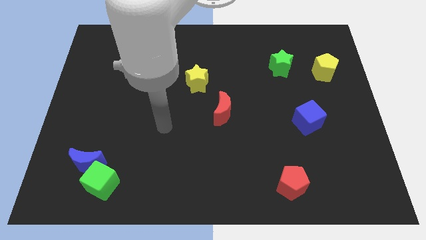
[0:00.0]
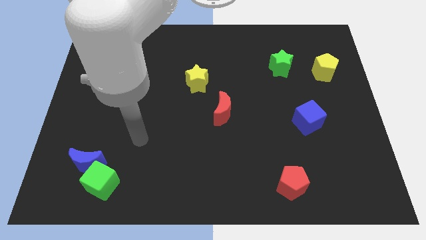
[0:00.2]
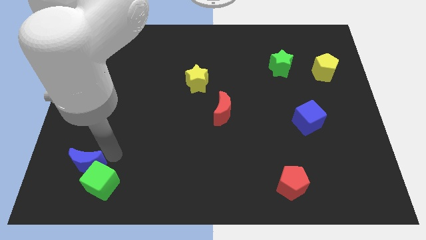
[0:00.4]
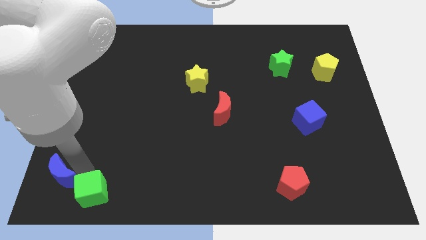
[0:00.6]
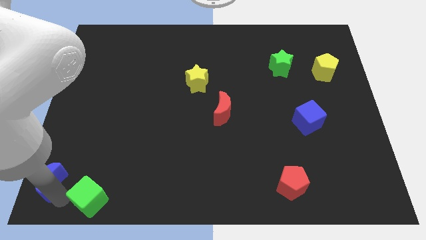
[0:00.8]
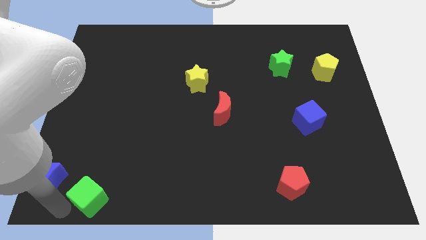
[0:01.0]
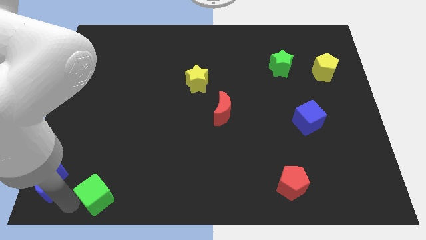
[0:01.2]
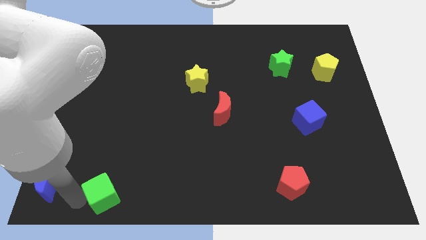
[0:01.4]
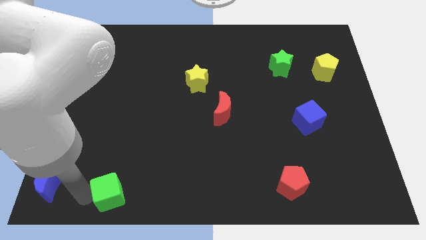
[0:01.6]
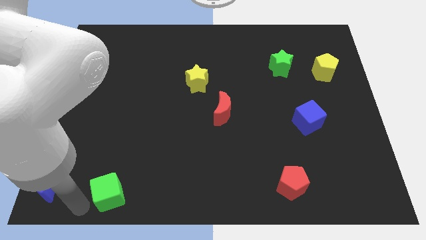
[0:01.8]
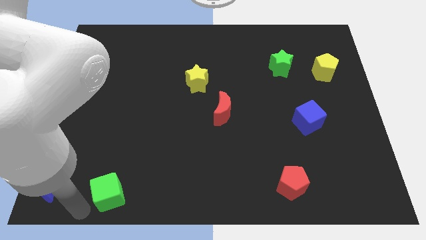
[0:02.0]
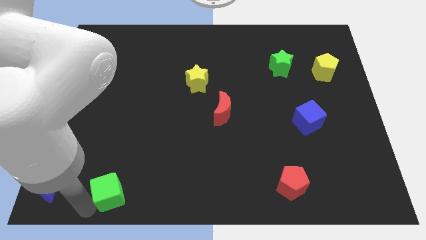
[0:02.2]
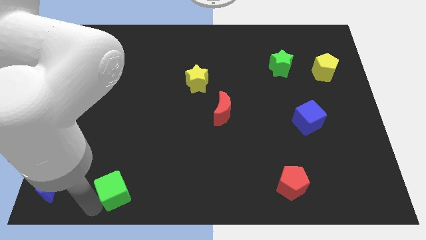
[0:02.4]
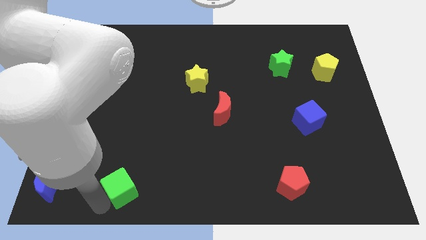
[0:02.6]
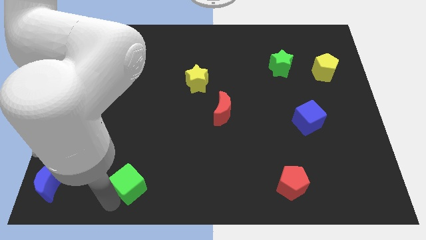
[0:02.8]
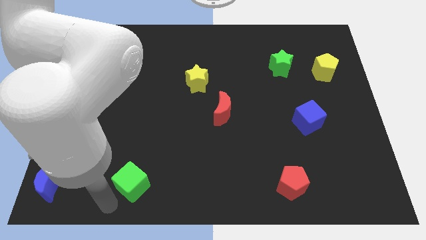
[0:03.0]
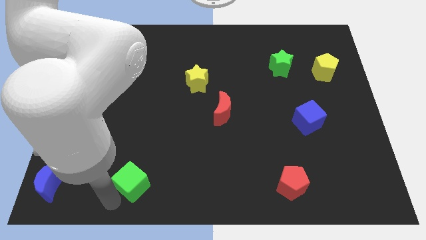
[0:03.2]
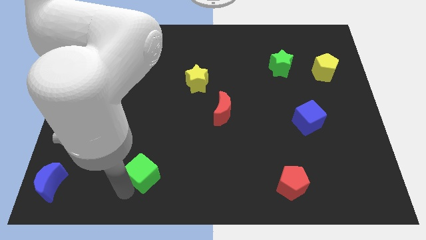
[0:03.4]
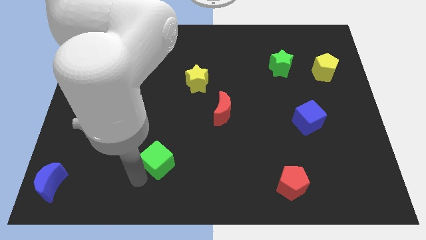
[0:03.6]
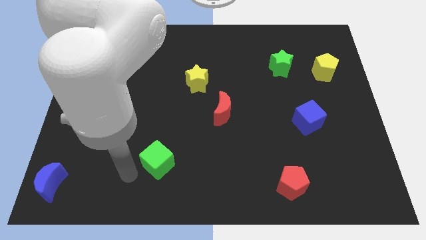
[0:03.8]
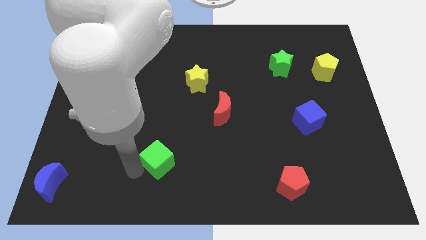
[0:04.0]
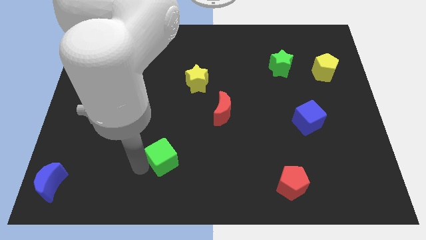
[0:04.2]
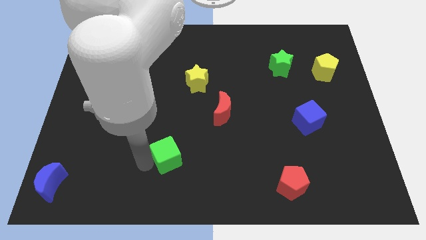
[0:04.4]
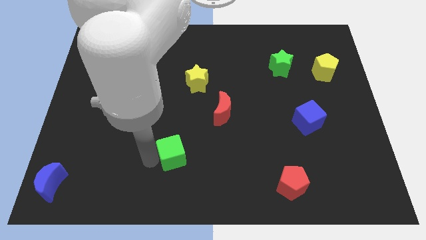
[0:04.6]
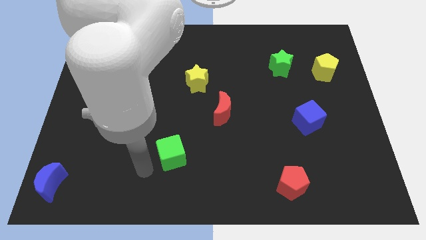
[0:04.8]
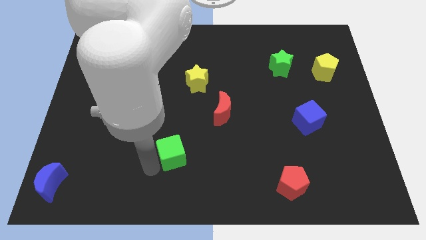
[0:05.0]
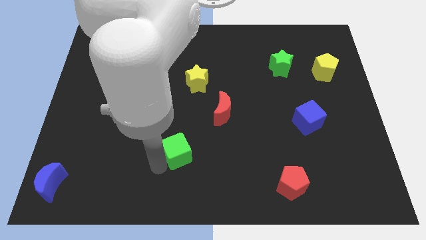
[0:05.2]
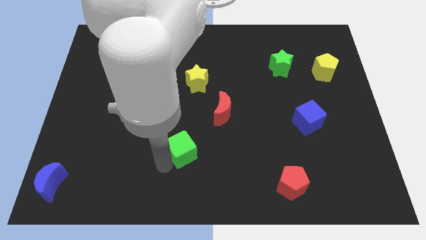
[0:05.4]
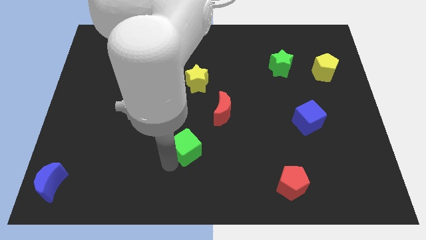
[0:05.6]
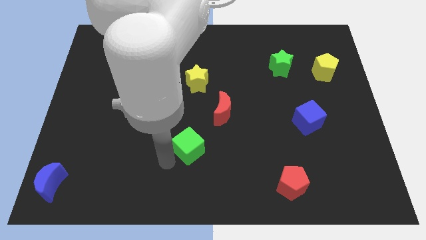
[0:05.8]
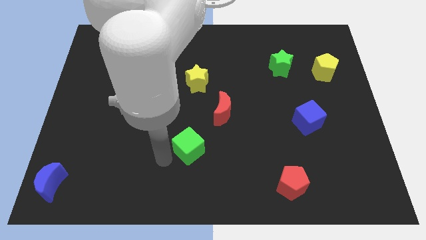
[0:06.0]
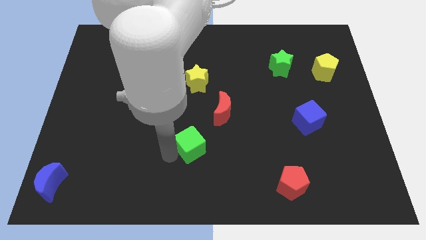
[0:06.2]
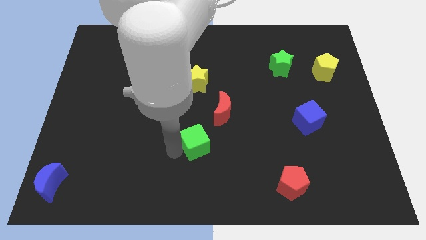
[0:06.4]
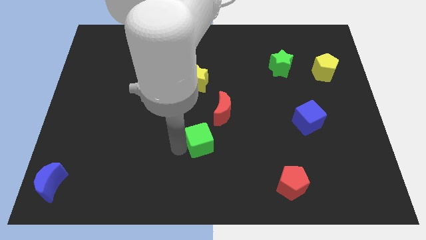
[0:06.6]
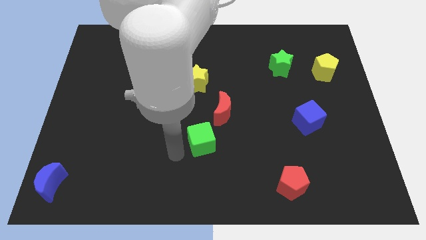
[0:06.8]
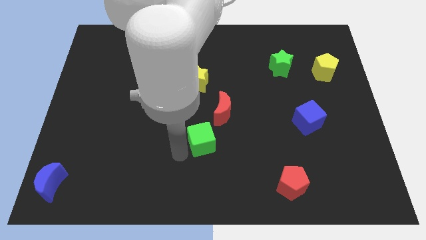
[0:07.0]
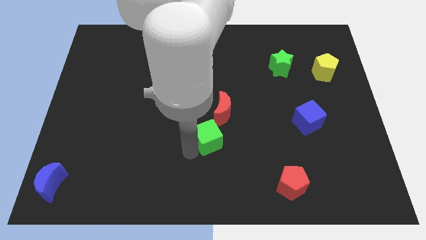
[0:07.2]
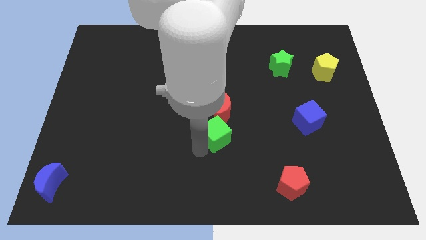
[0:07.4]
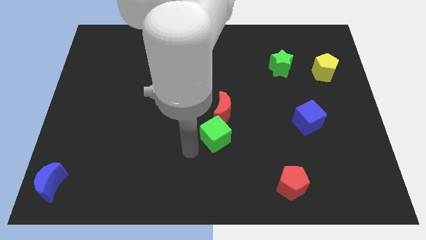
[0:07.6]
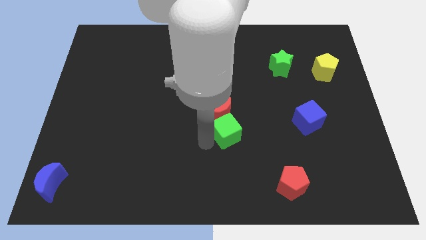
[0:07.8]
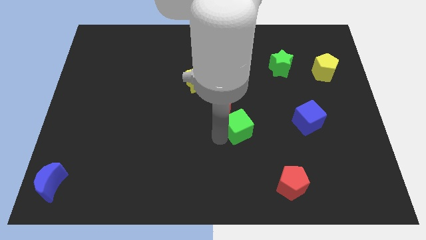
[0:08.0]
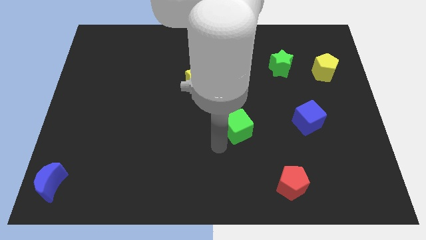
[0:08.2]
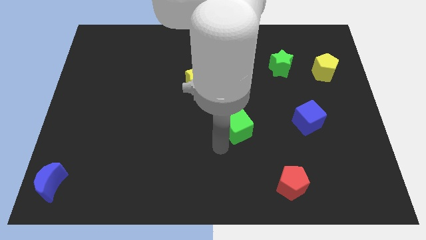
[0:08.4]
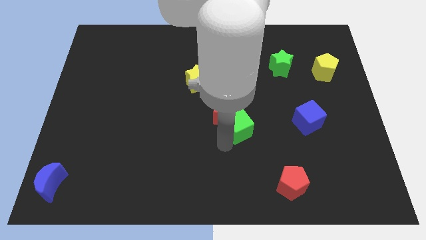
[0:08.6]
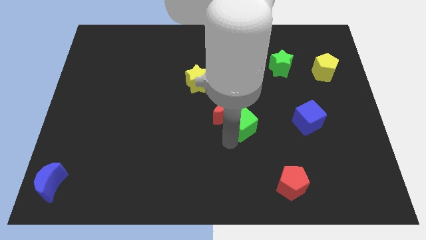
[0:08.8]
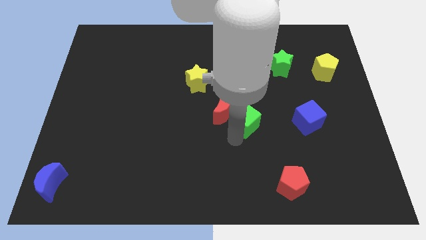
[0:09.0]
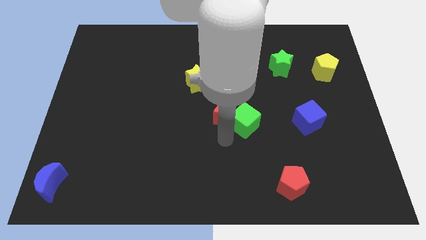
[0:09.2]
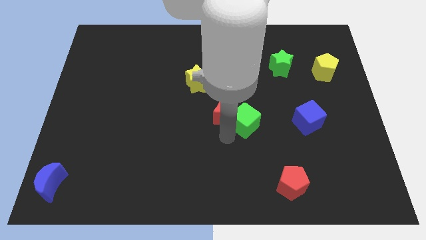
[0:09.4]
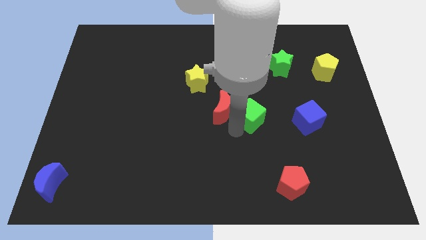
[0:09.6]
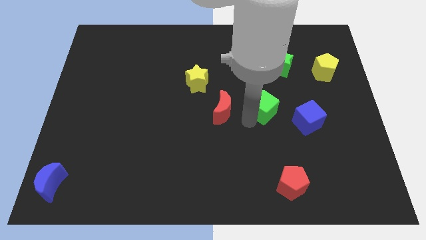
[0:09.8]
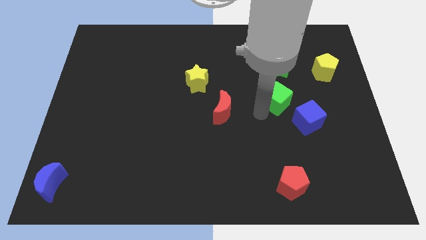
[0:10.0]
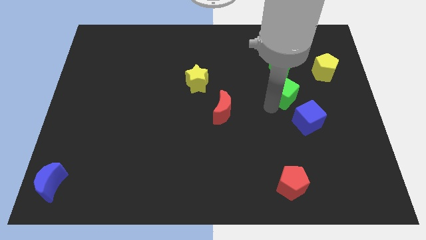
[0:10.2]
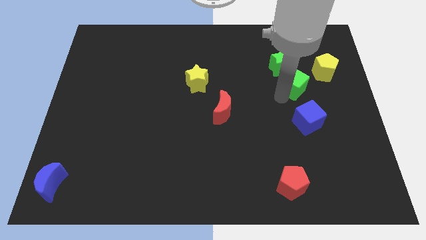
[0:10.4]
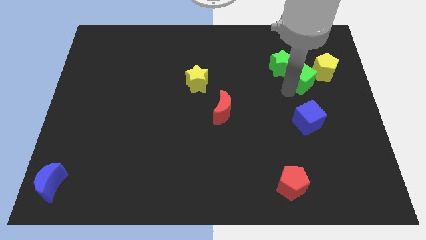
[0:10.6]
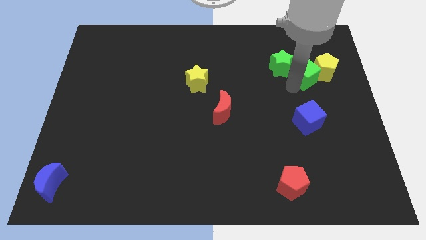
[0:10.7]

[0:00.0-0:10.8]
slide the green cube close to the yellow pentagon

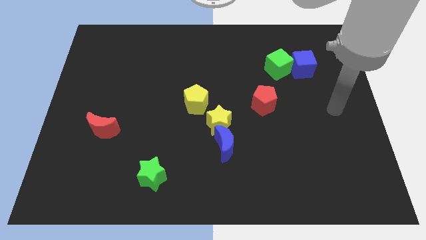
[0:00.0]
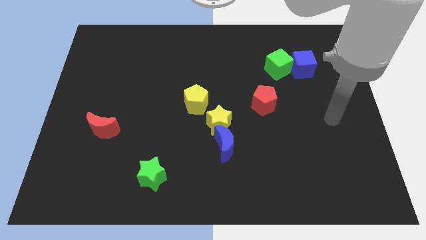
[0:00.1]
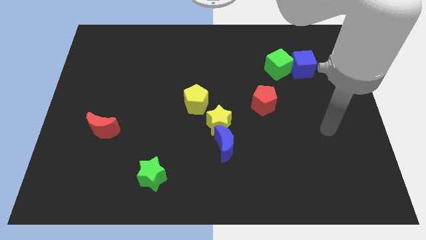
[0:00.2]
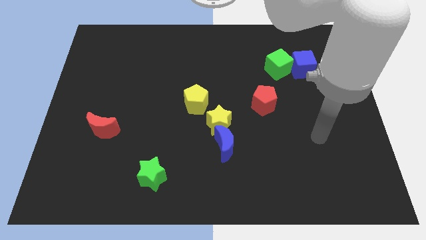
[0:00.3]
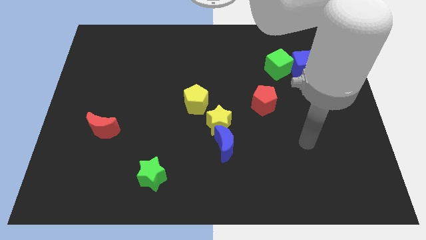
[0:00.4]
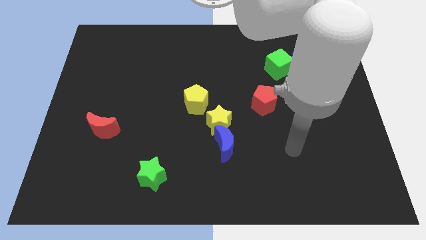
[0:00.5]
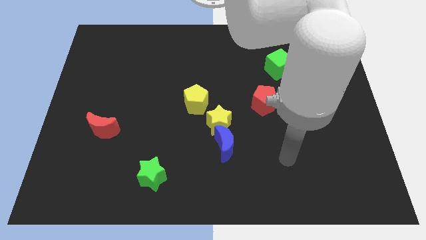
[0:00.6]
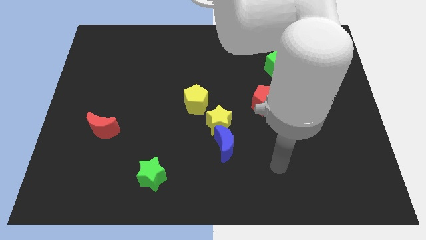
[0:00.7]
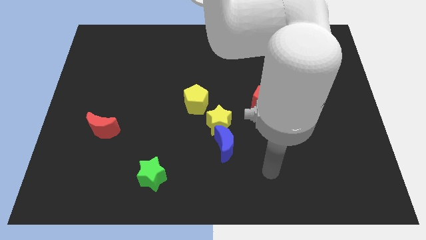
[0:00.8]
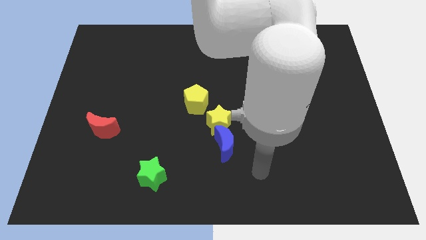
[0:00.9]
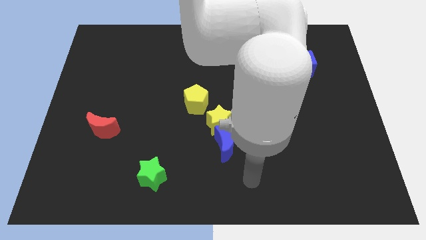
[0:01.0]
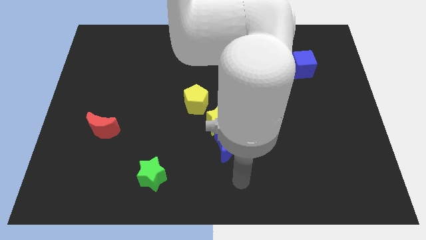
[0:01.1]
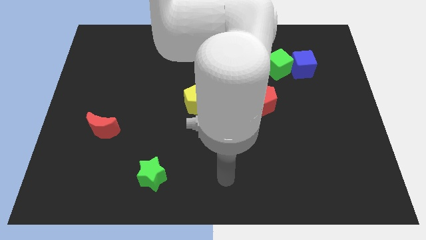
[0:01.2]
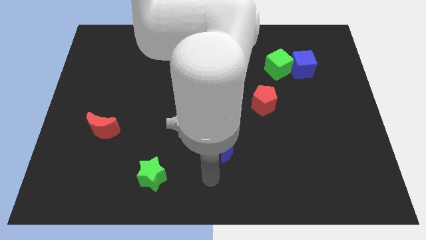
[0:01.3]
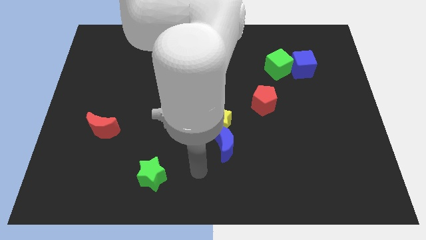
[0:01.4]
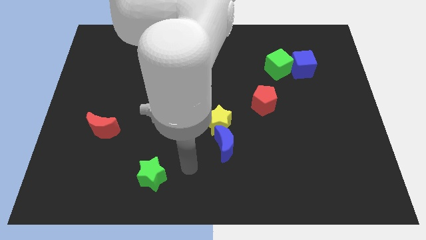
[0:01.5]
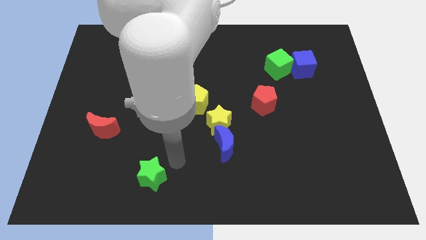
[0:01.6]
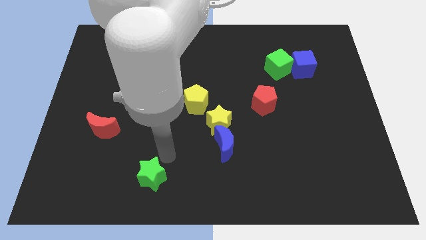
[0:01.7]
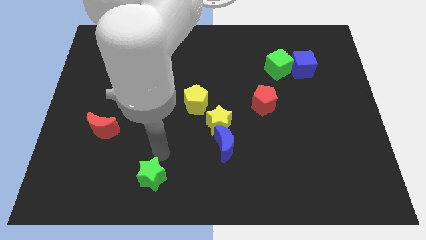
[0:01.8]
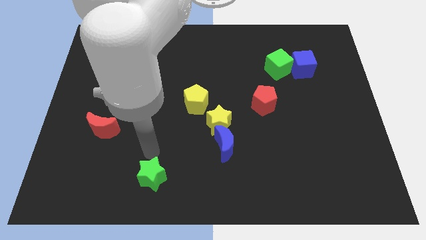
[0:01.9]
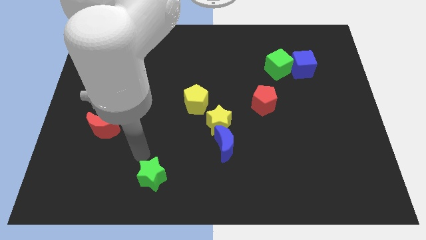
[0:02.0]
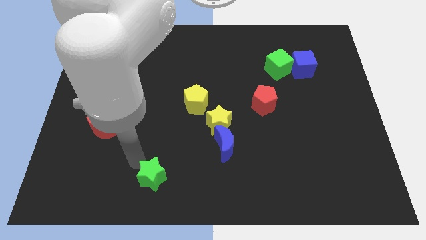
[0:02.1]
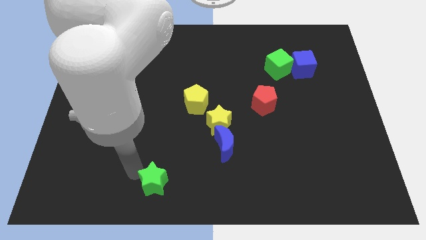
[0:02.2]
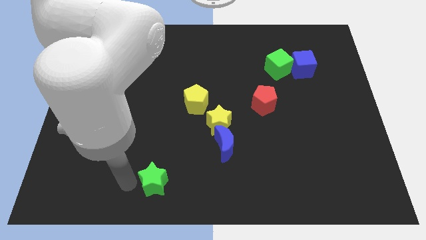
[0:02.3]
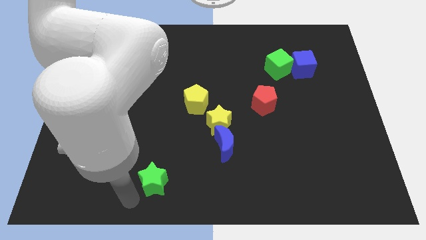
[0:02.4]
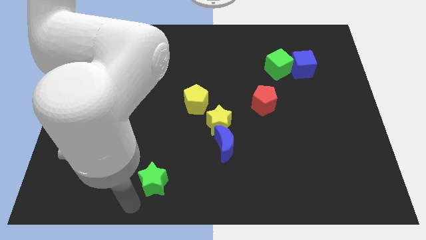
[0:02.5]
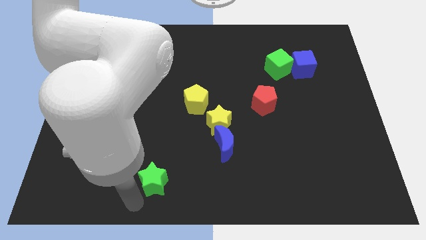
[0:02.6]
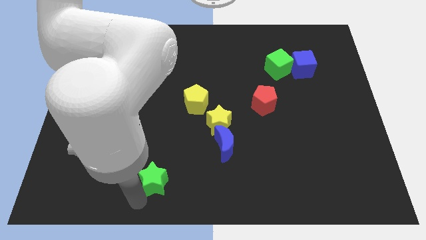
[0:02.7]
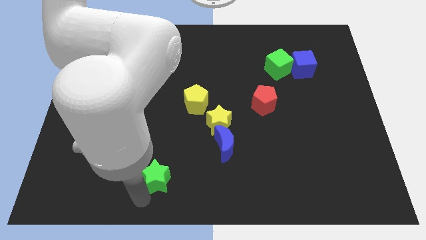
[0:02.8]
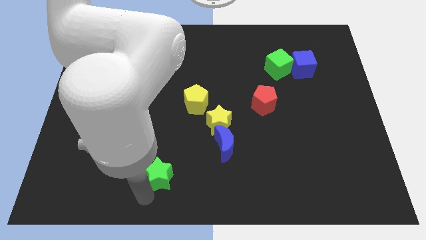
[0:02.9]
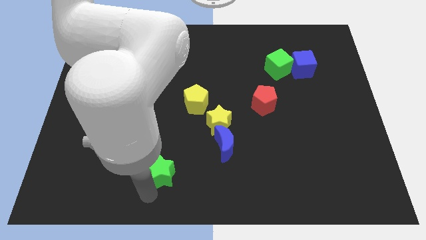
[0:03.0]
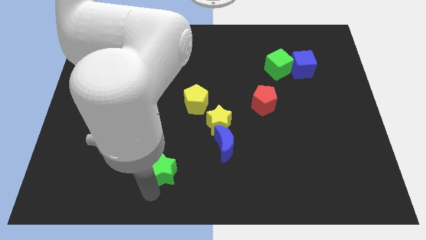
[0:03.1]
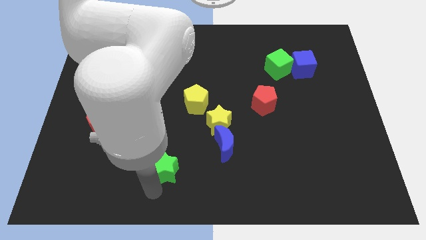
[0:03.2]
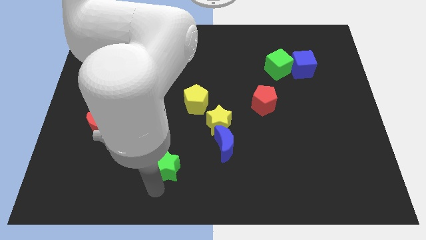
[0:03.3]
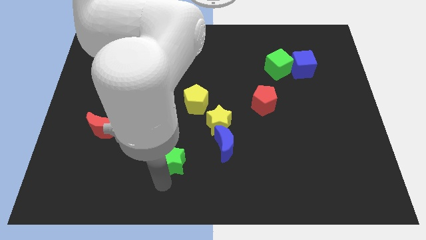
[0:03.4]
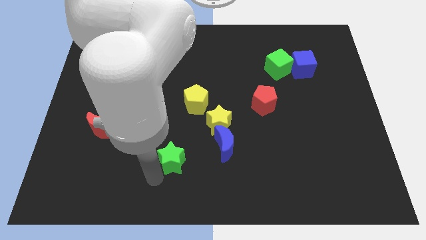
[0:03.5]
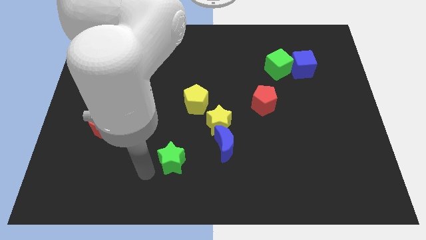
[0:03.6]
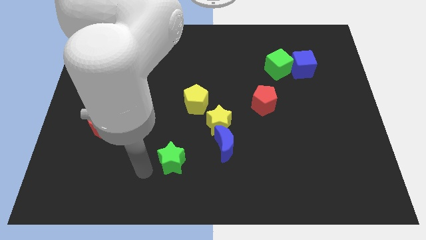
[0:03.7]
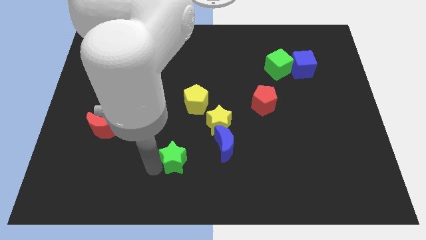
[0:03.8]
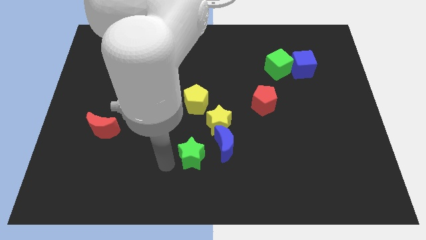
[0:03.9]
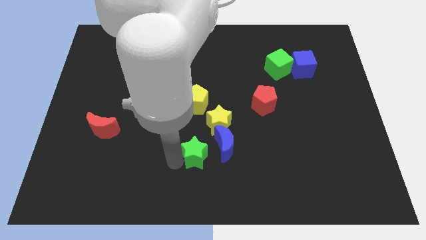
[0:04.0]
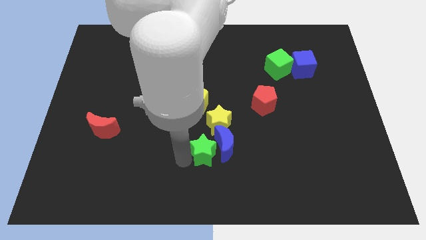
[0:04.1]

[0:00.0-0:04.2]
push the green star towards the blue moon
